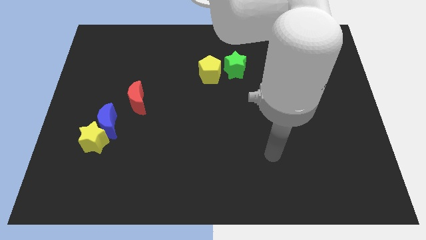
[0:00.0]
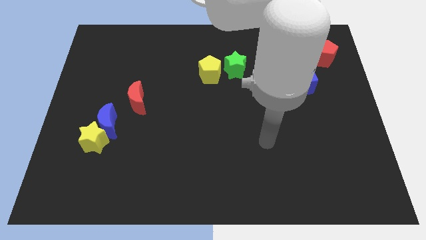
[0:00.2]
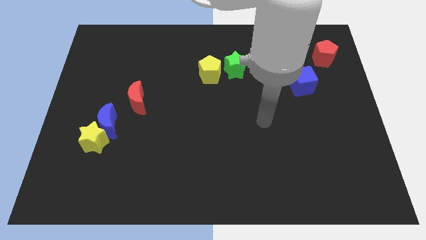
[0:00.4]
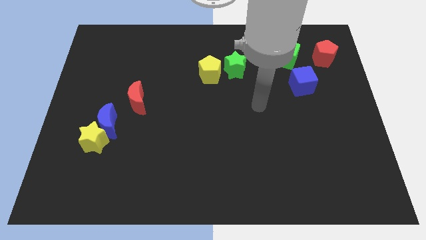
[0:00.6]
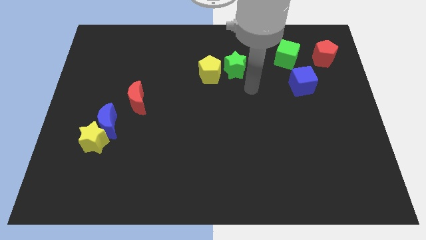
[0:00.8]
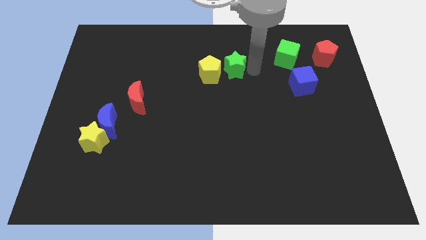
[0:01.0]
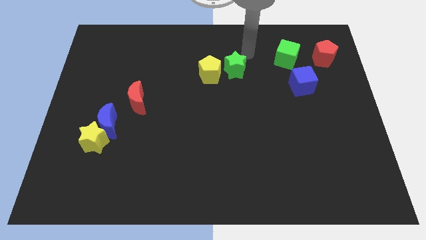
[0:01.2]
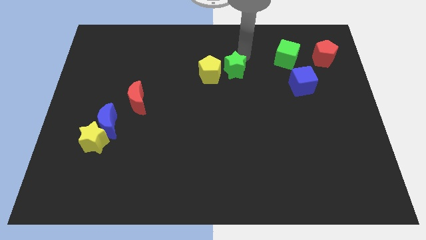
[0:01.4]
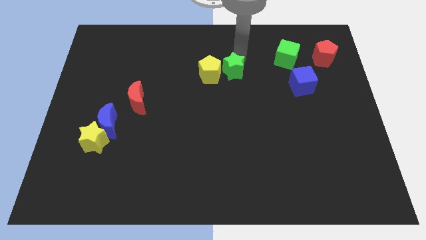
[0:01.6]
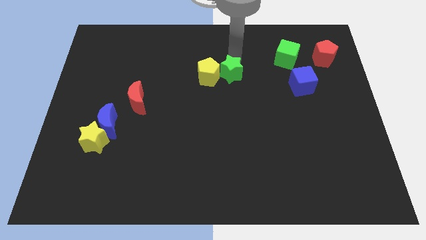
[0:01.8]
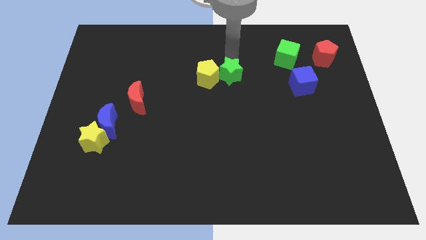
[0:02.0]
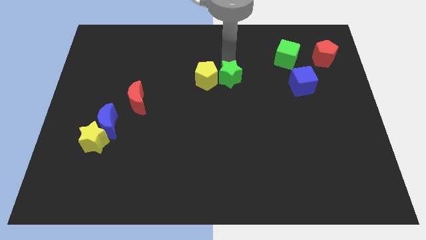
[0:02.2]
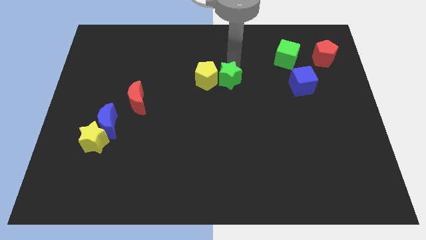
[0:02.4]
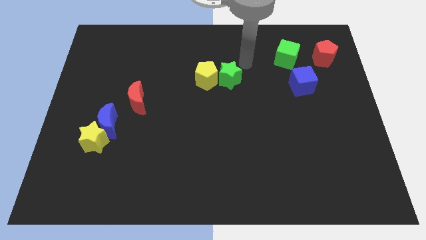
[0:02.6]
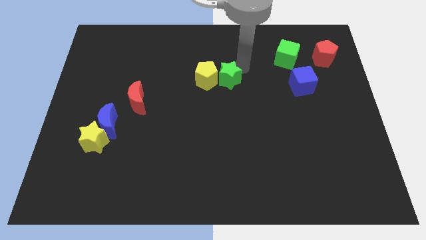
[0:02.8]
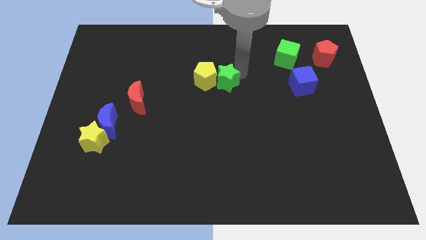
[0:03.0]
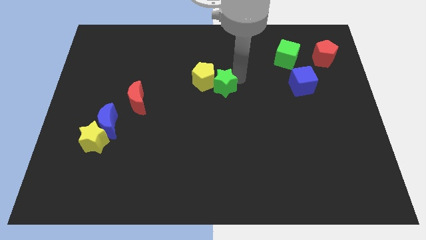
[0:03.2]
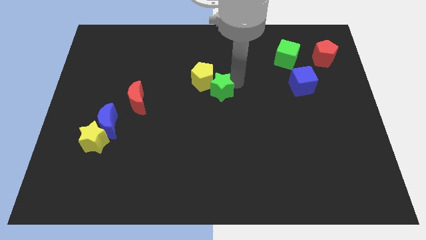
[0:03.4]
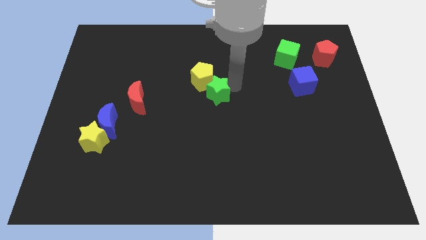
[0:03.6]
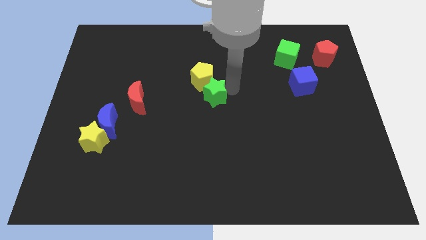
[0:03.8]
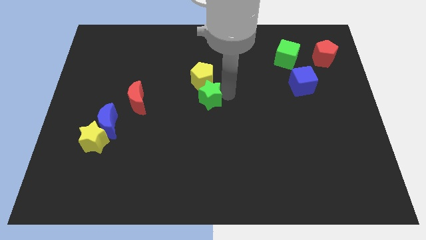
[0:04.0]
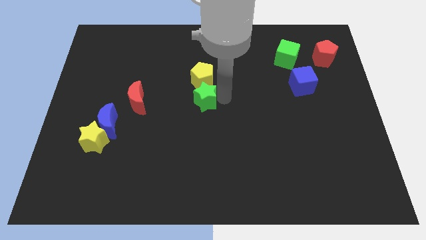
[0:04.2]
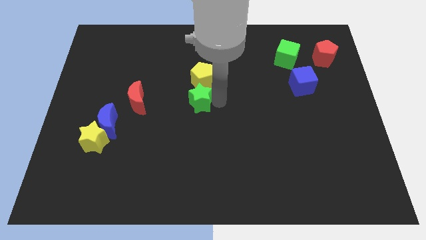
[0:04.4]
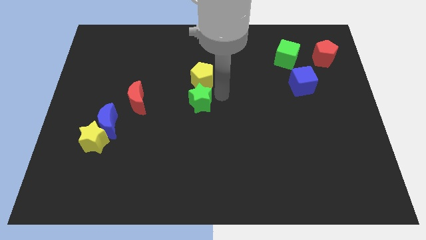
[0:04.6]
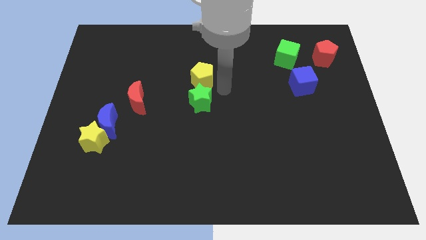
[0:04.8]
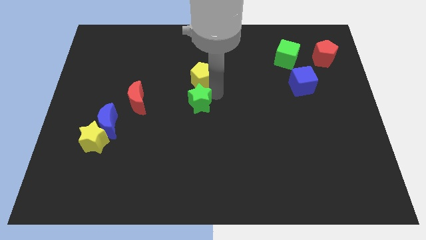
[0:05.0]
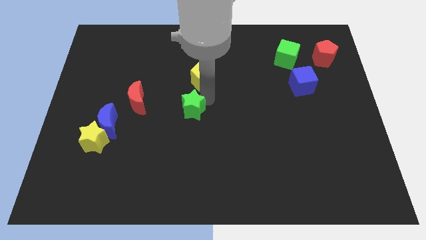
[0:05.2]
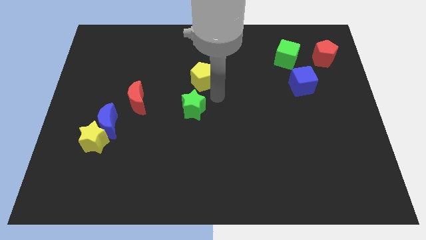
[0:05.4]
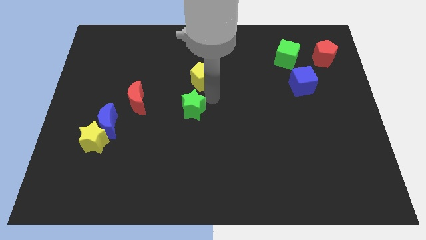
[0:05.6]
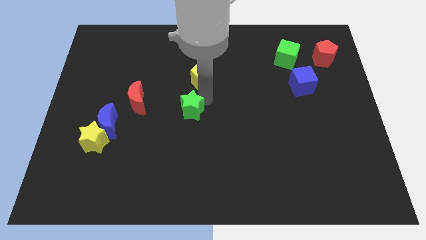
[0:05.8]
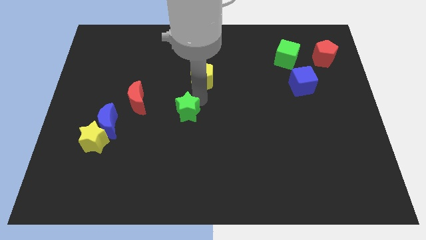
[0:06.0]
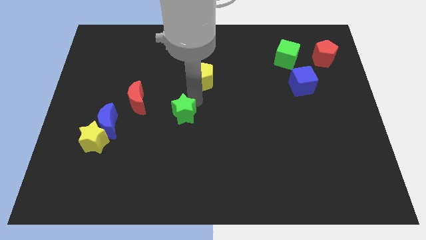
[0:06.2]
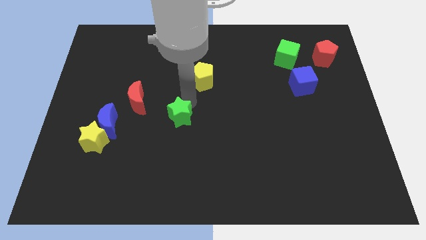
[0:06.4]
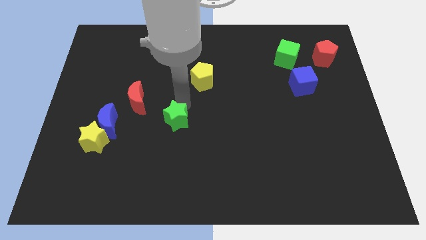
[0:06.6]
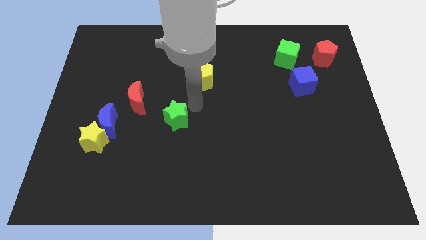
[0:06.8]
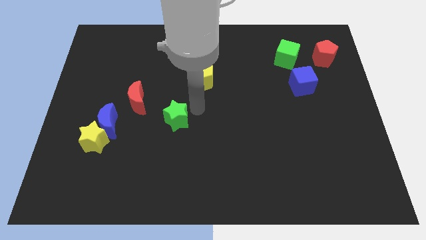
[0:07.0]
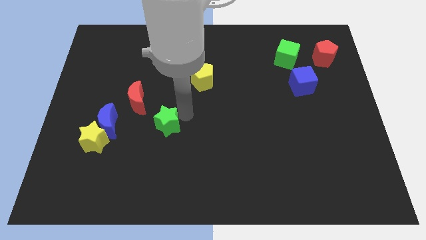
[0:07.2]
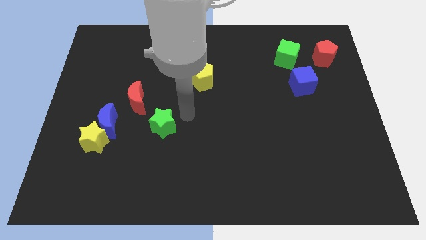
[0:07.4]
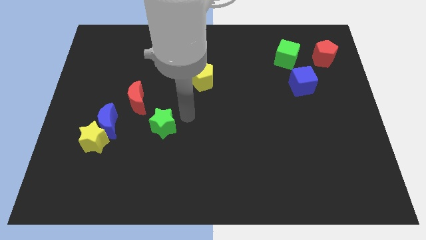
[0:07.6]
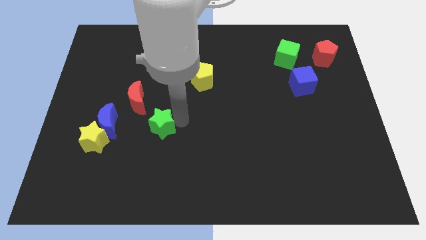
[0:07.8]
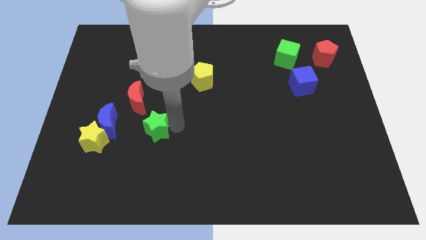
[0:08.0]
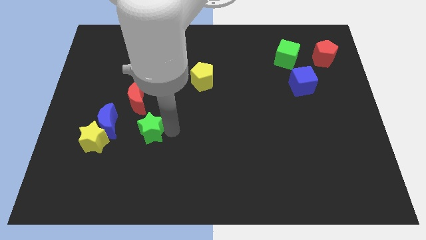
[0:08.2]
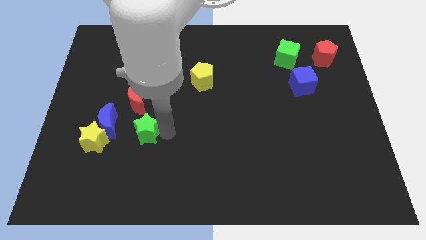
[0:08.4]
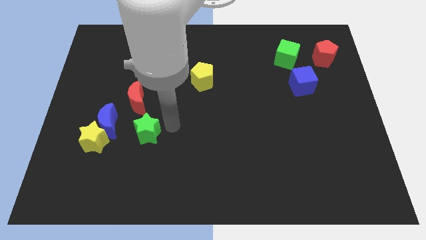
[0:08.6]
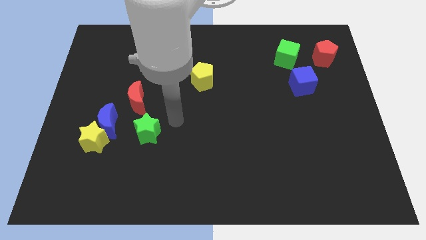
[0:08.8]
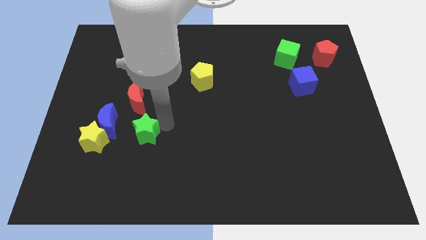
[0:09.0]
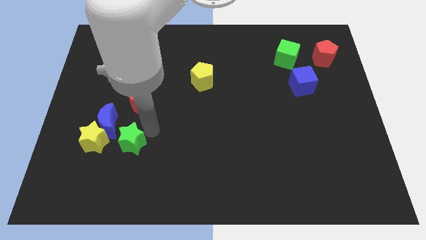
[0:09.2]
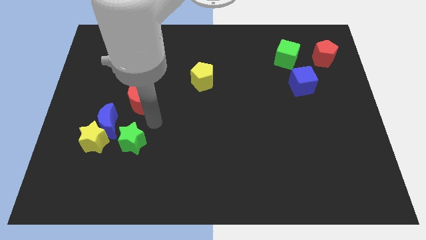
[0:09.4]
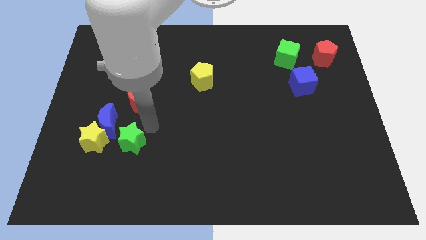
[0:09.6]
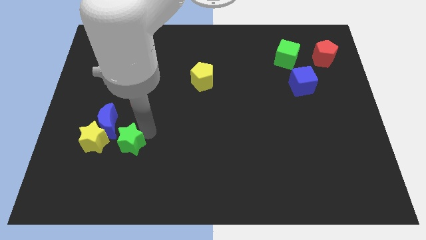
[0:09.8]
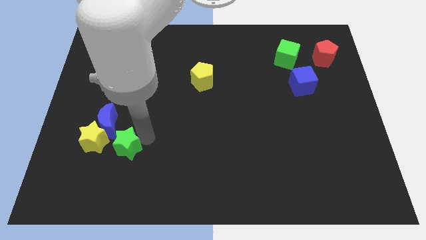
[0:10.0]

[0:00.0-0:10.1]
push the green star diagonally down and to the right of the yellow star

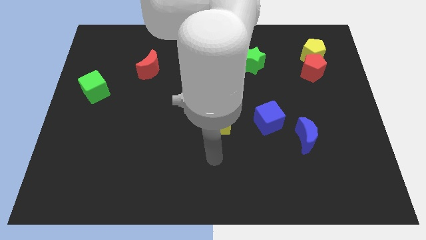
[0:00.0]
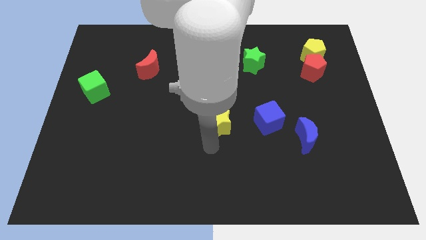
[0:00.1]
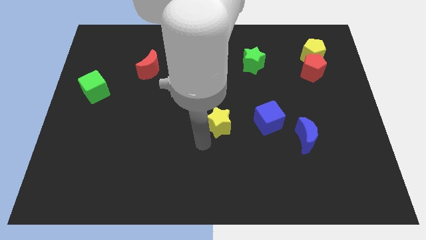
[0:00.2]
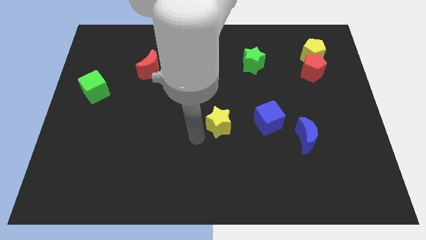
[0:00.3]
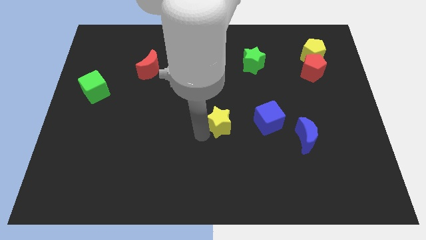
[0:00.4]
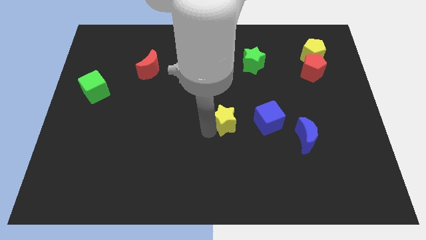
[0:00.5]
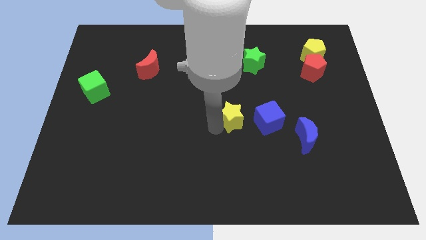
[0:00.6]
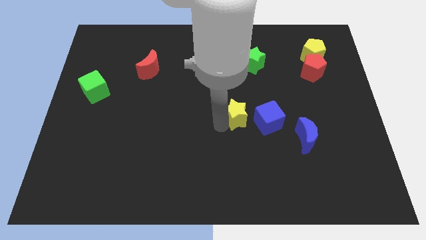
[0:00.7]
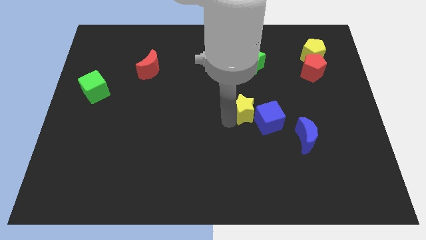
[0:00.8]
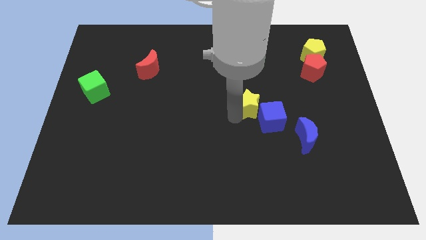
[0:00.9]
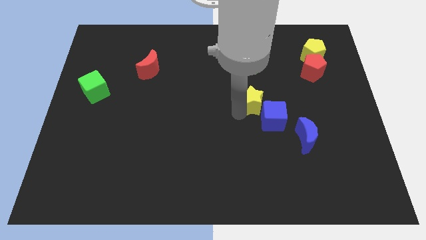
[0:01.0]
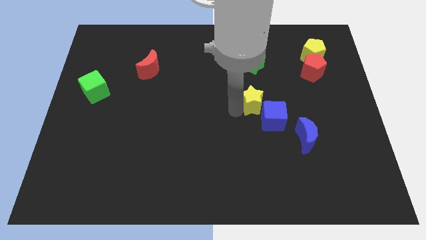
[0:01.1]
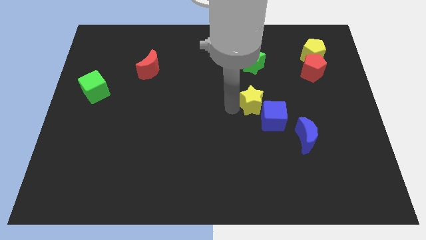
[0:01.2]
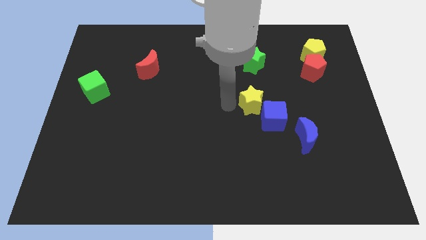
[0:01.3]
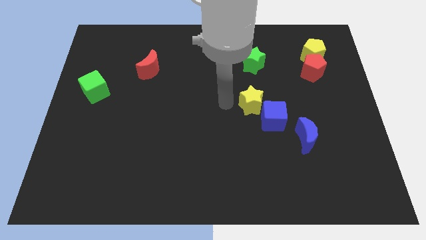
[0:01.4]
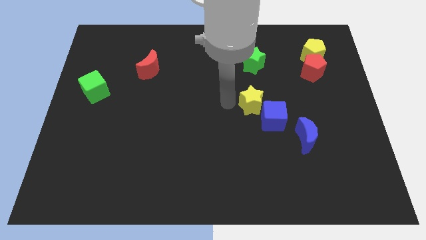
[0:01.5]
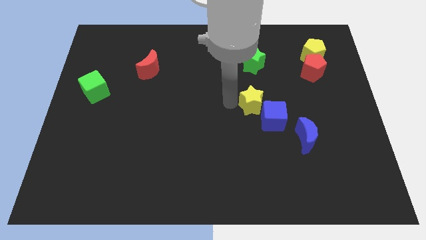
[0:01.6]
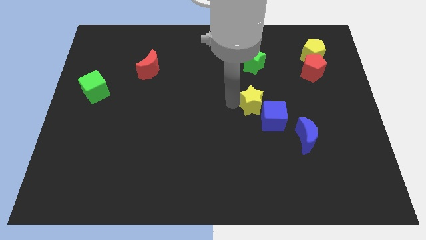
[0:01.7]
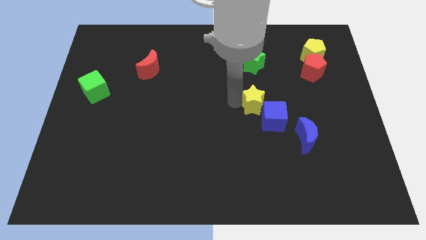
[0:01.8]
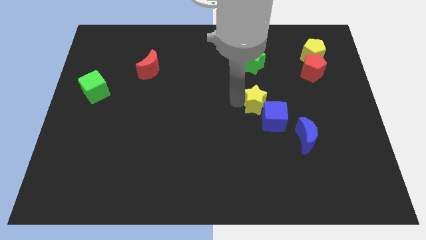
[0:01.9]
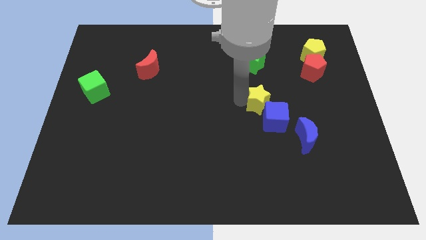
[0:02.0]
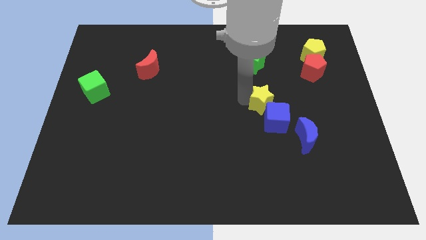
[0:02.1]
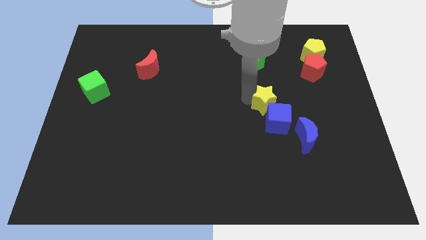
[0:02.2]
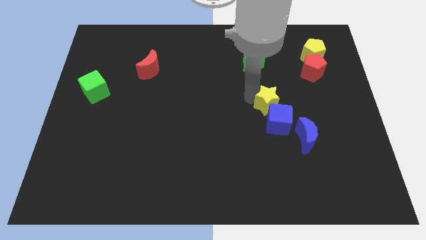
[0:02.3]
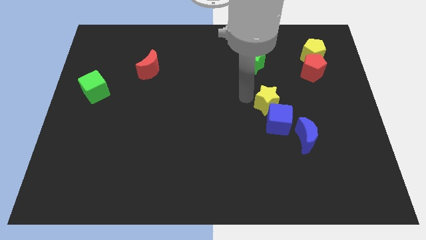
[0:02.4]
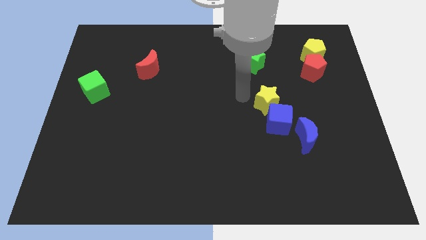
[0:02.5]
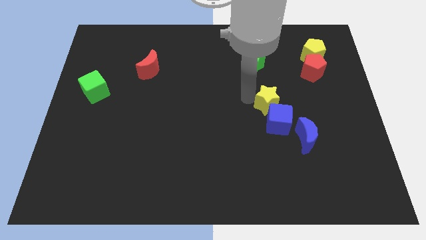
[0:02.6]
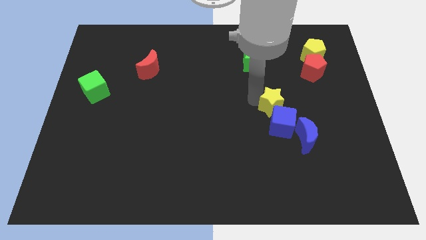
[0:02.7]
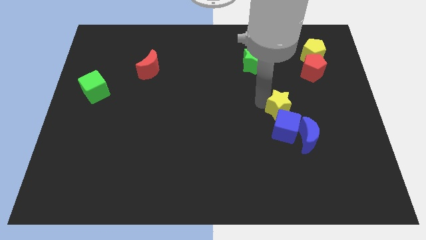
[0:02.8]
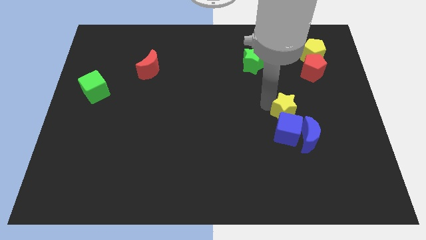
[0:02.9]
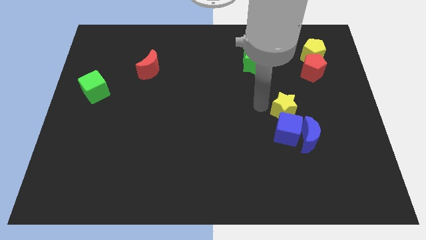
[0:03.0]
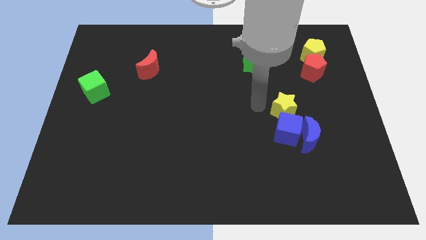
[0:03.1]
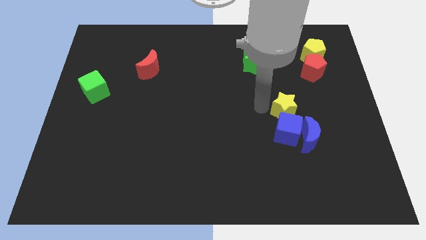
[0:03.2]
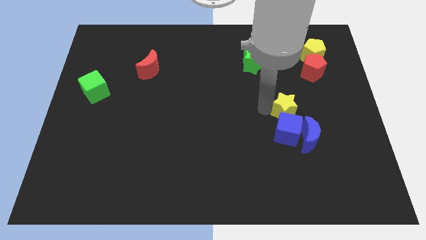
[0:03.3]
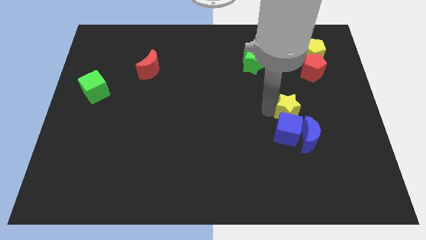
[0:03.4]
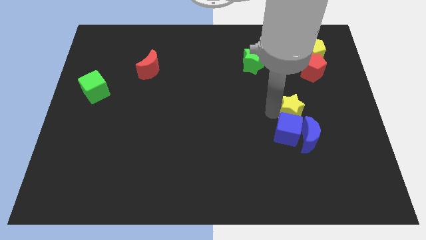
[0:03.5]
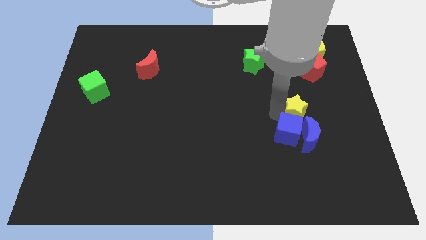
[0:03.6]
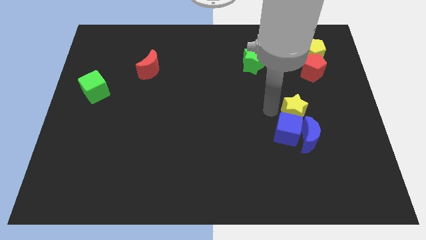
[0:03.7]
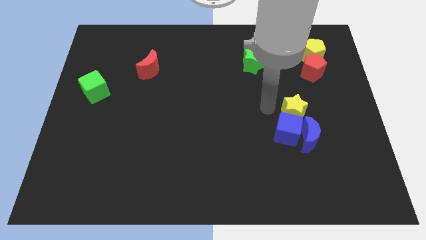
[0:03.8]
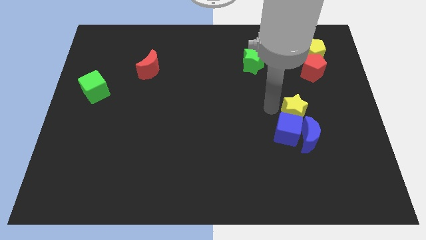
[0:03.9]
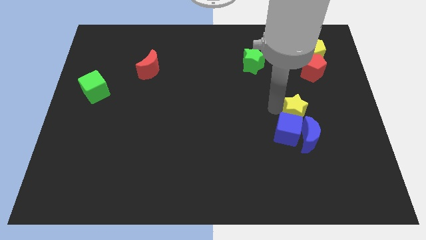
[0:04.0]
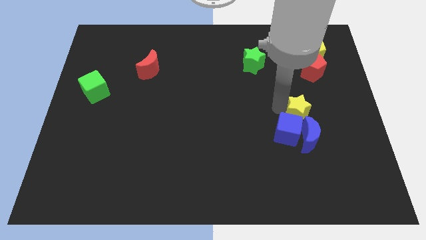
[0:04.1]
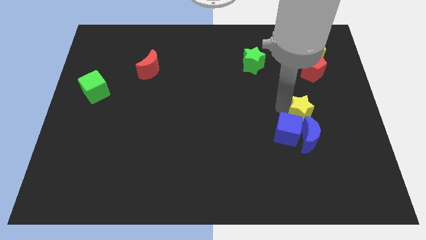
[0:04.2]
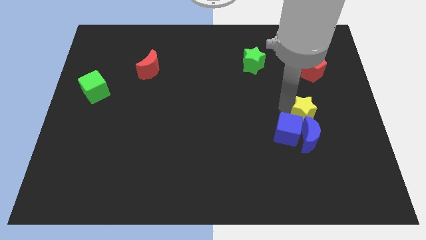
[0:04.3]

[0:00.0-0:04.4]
put the yellow star to the top right side of the blue moon
